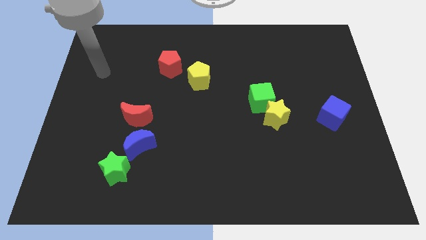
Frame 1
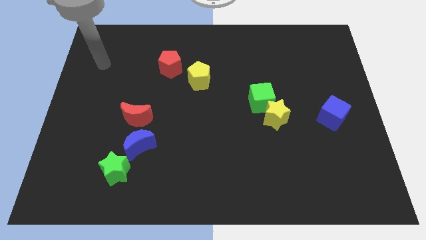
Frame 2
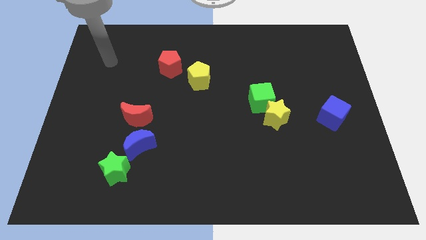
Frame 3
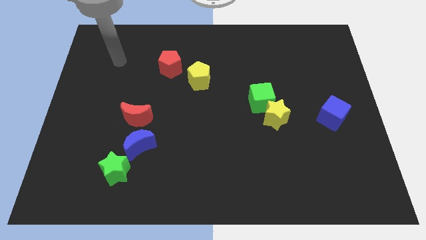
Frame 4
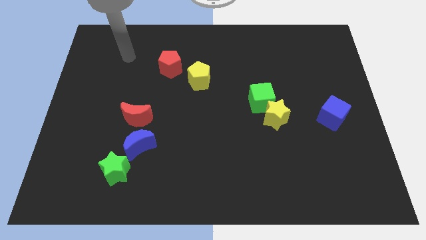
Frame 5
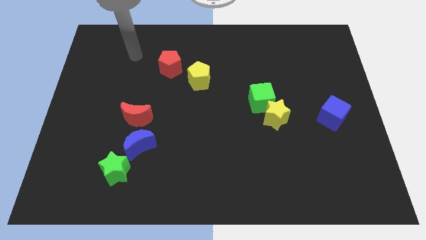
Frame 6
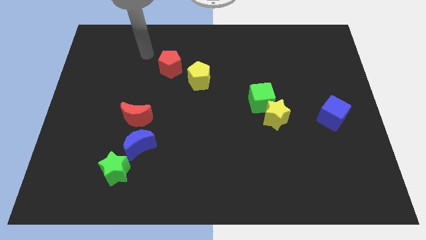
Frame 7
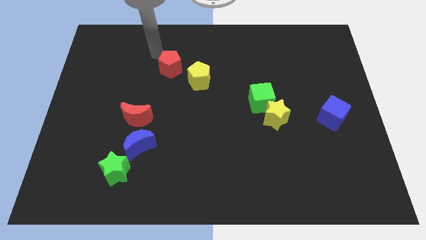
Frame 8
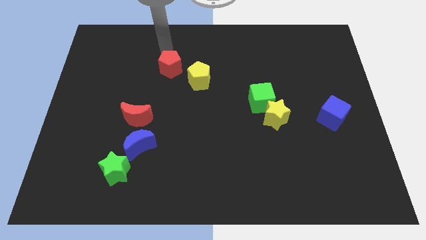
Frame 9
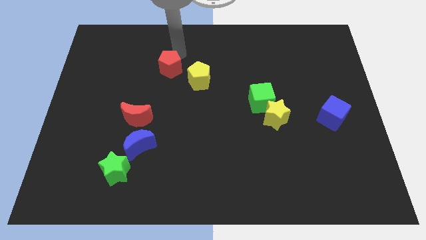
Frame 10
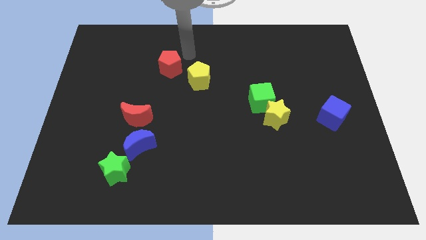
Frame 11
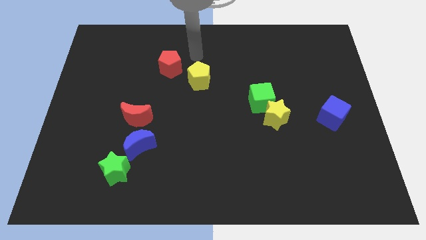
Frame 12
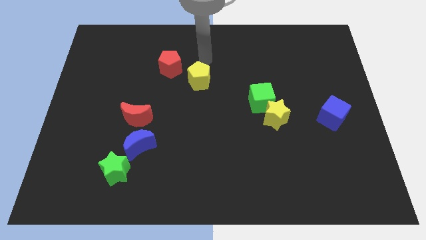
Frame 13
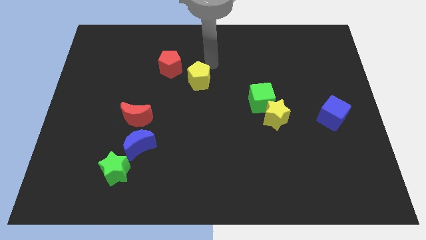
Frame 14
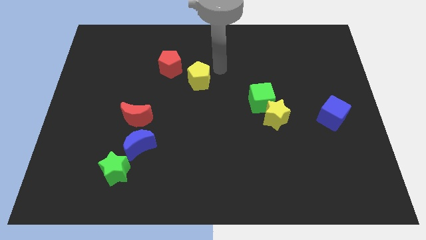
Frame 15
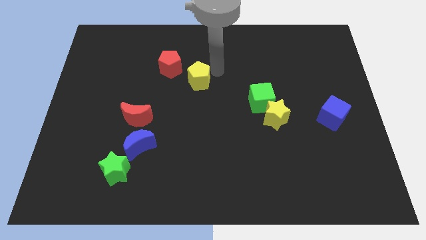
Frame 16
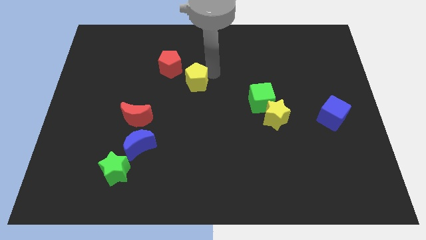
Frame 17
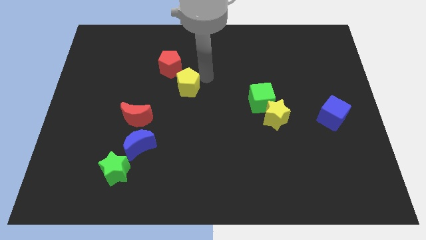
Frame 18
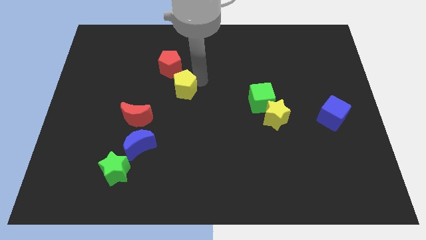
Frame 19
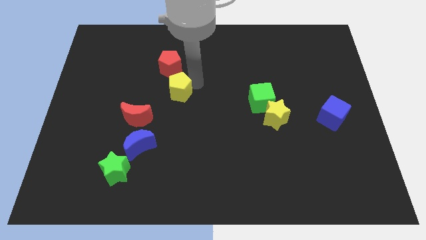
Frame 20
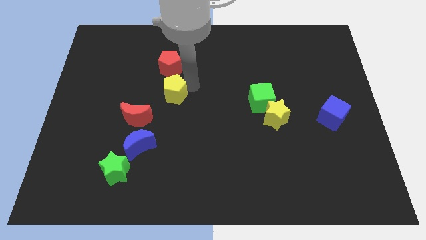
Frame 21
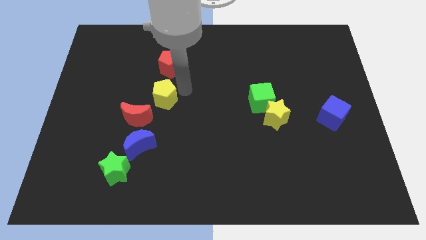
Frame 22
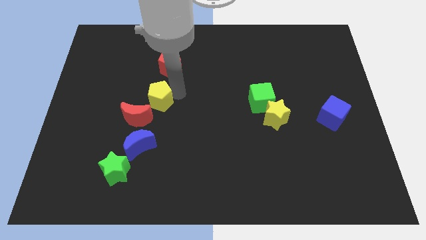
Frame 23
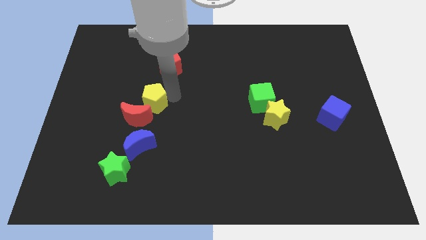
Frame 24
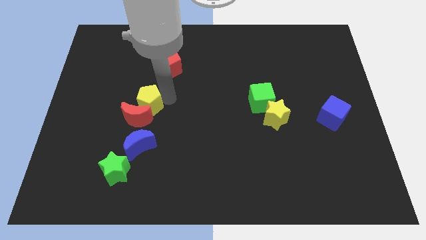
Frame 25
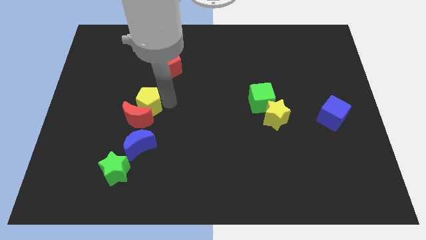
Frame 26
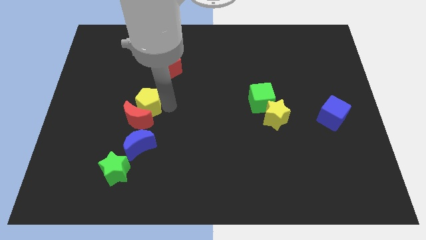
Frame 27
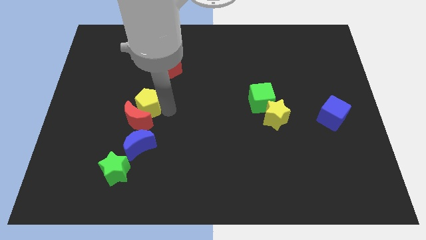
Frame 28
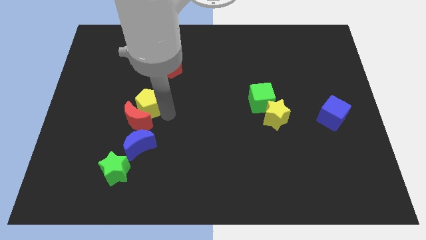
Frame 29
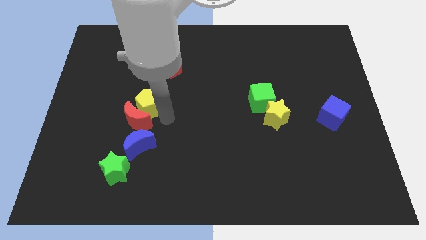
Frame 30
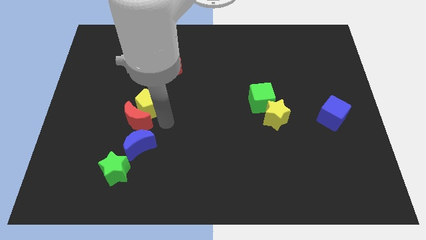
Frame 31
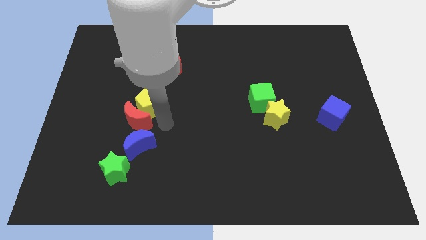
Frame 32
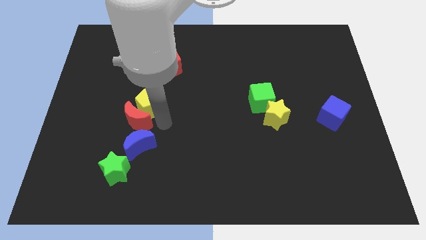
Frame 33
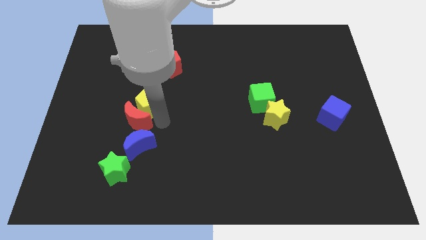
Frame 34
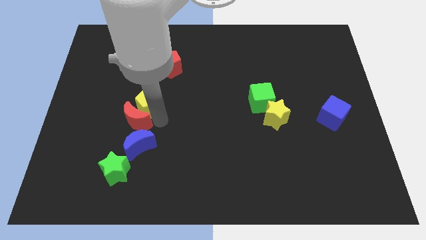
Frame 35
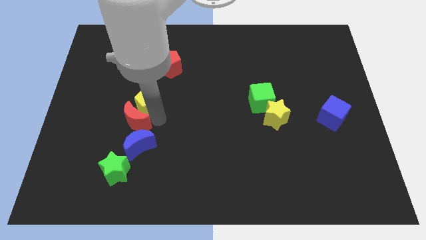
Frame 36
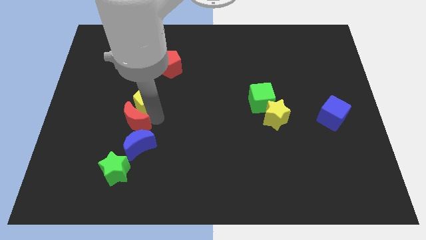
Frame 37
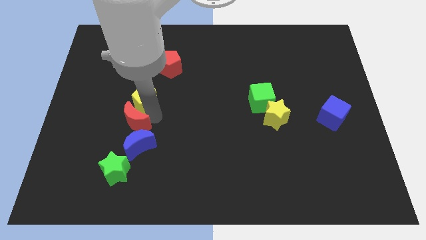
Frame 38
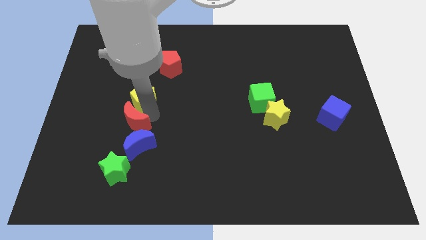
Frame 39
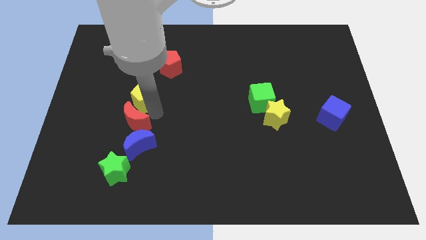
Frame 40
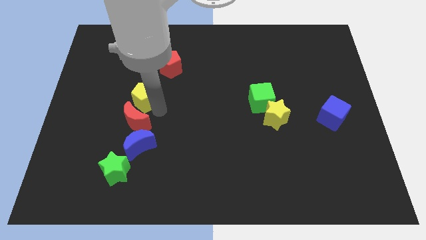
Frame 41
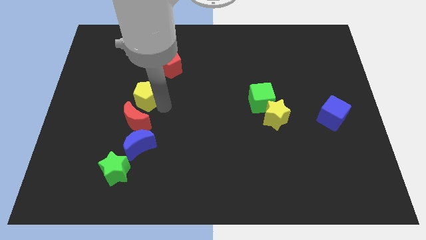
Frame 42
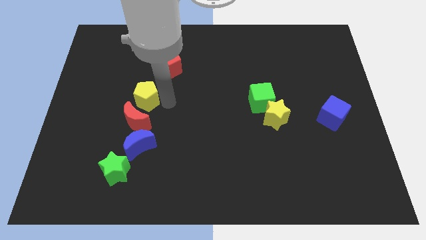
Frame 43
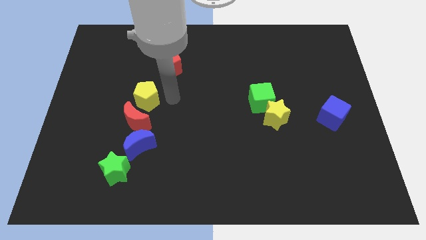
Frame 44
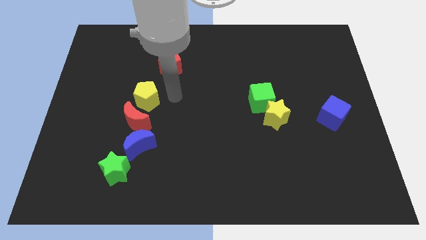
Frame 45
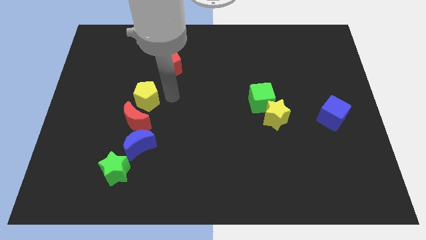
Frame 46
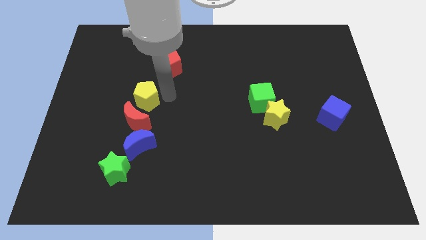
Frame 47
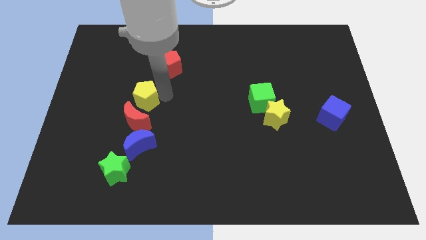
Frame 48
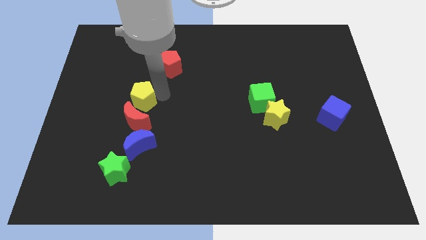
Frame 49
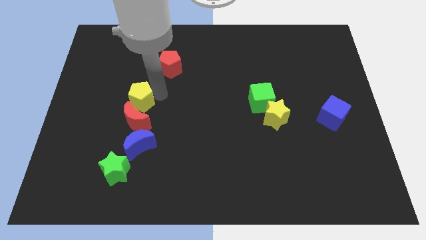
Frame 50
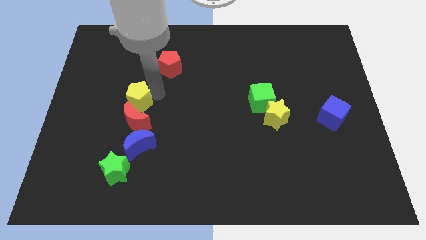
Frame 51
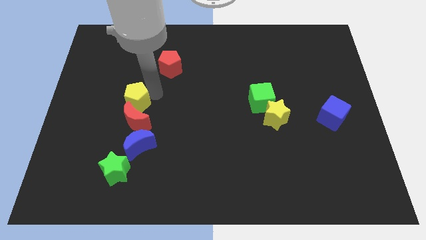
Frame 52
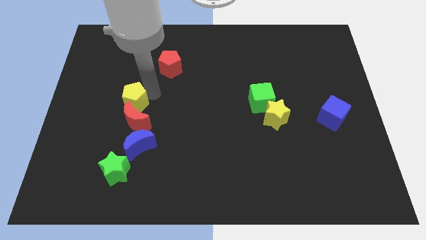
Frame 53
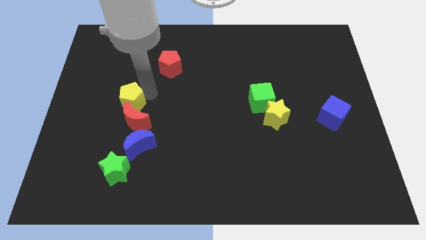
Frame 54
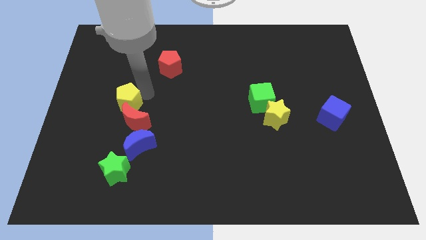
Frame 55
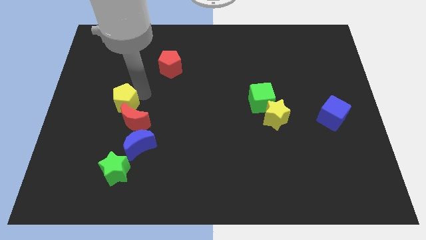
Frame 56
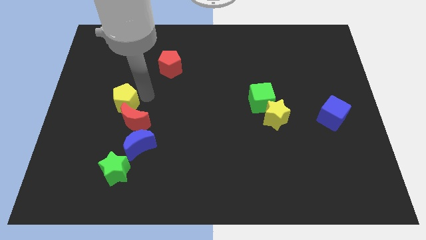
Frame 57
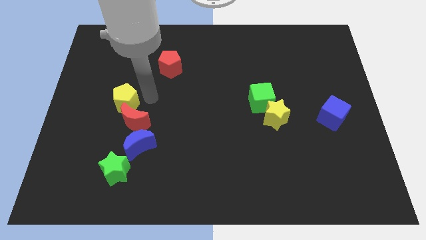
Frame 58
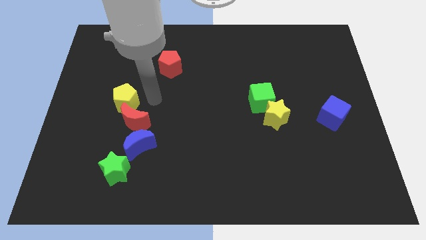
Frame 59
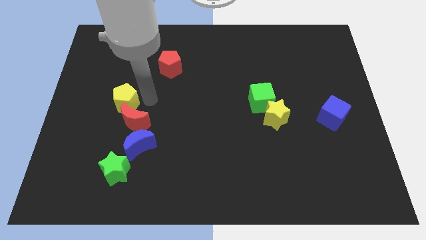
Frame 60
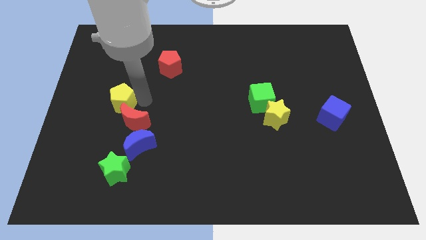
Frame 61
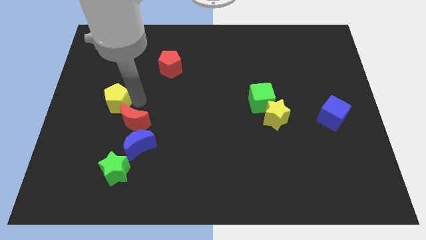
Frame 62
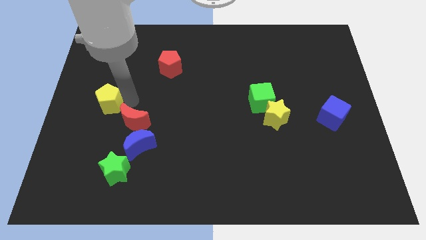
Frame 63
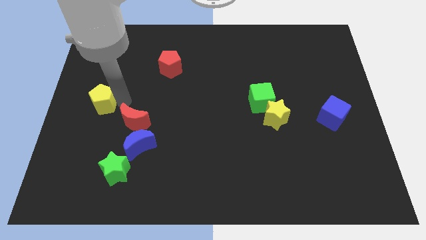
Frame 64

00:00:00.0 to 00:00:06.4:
move the yellow pentagon to the left side

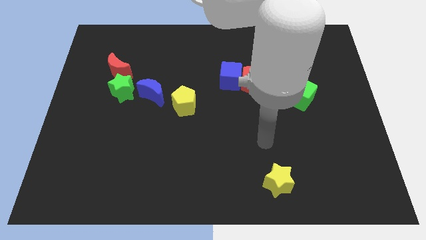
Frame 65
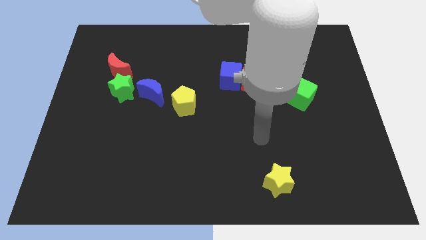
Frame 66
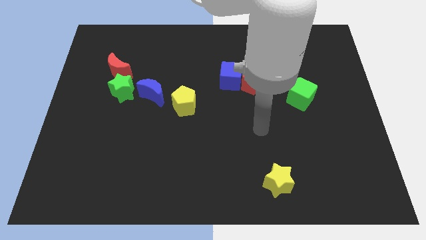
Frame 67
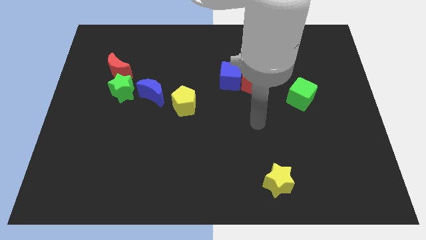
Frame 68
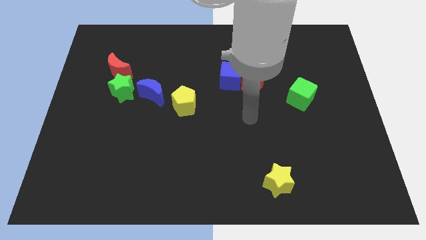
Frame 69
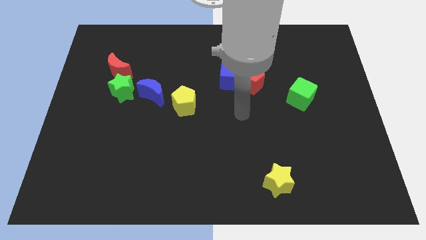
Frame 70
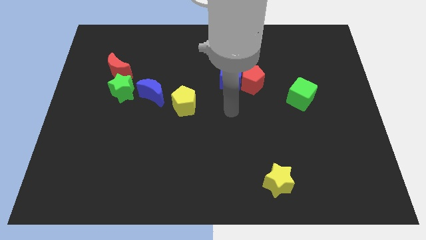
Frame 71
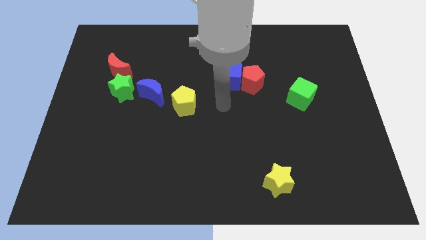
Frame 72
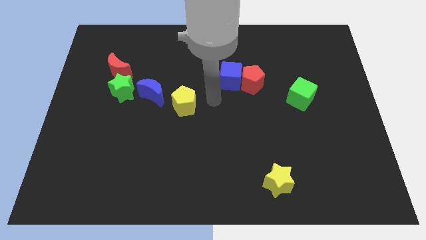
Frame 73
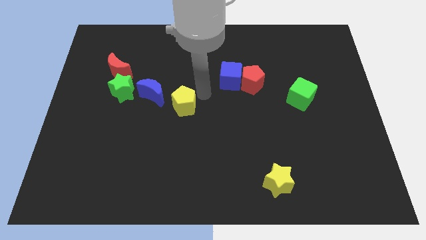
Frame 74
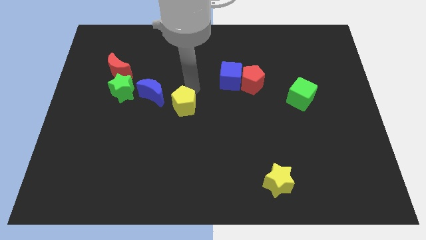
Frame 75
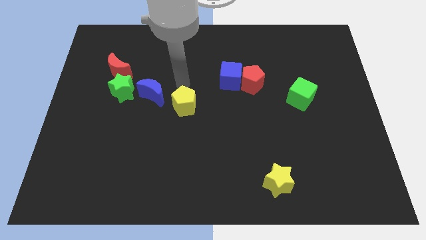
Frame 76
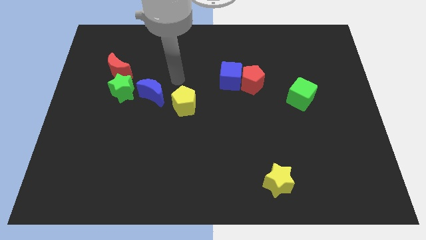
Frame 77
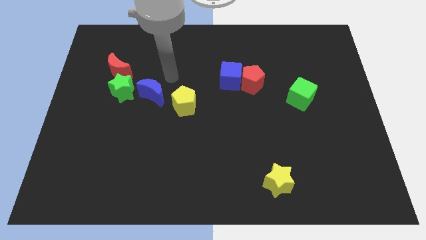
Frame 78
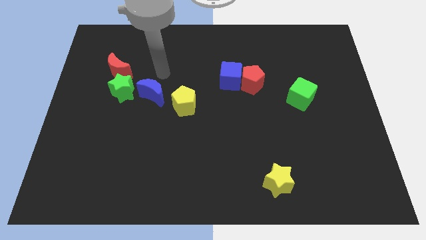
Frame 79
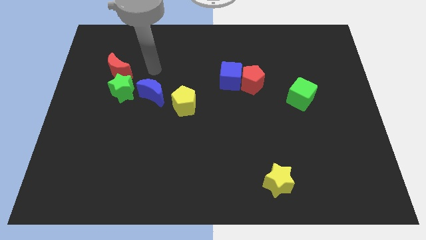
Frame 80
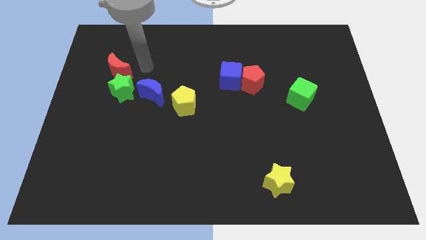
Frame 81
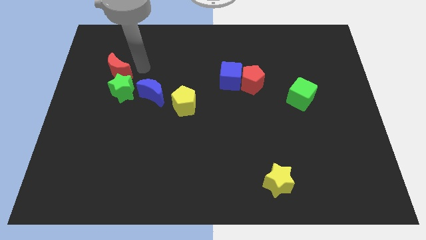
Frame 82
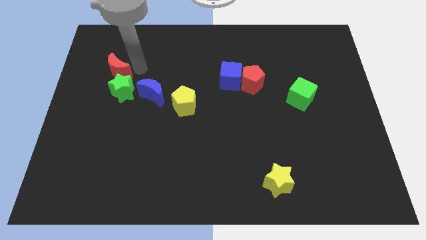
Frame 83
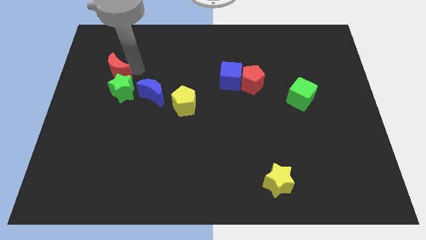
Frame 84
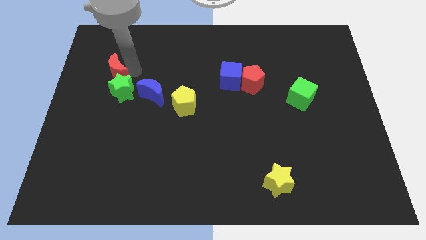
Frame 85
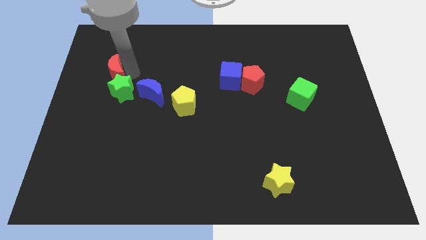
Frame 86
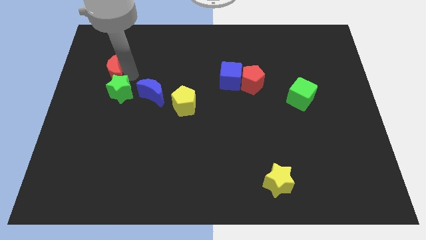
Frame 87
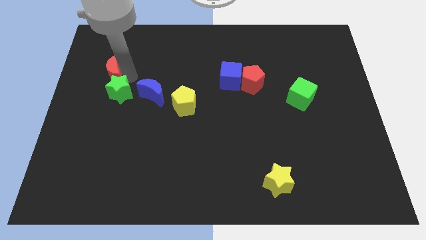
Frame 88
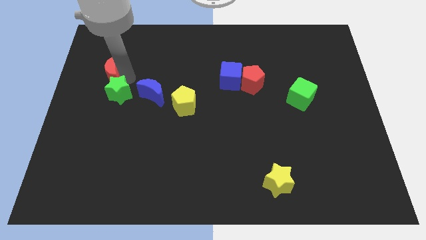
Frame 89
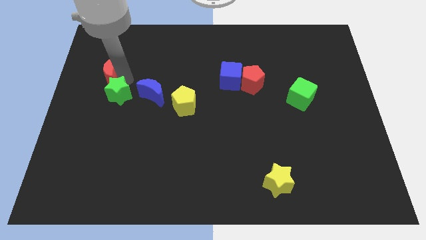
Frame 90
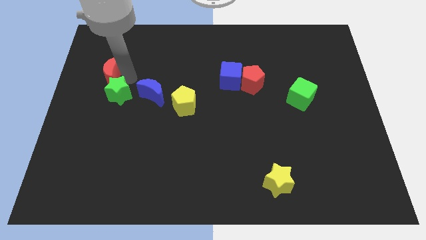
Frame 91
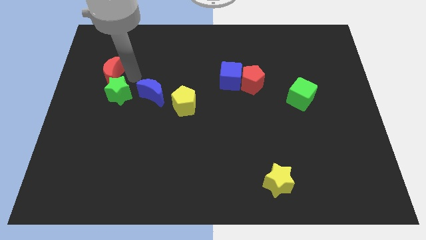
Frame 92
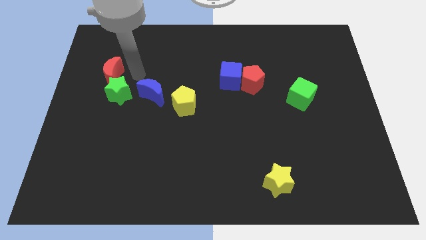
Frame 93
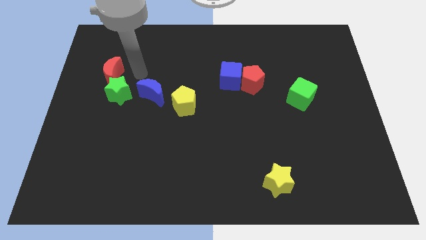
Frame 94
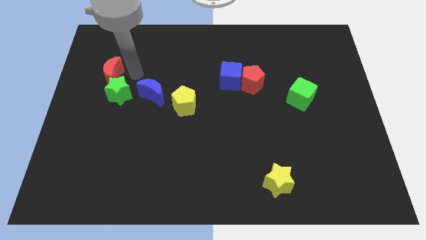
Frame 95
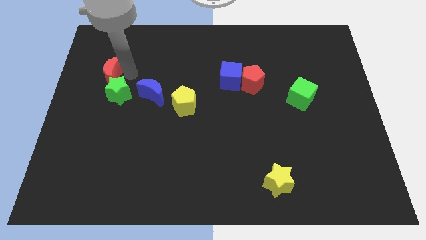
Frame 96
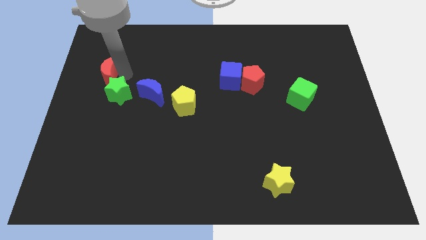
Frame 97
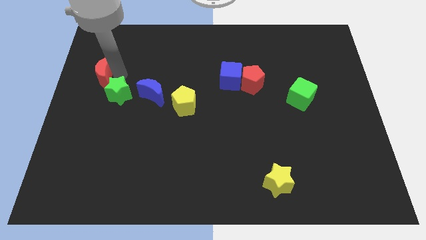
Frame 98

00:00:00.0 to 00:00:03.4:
put the red moon to the left side of the board
